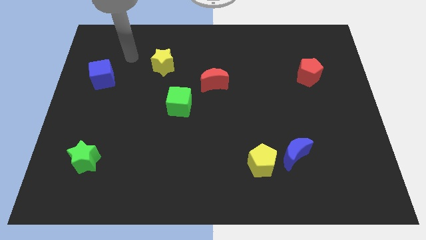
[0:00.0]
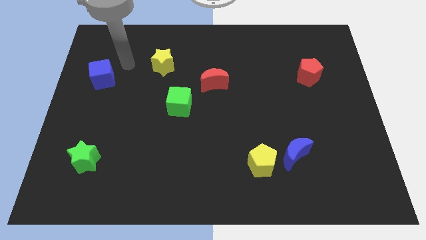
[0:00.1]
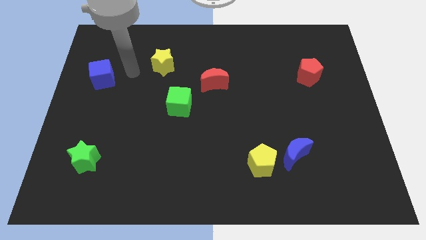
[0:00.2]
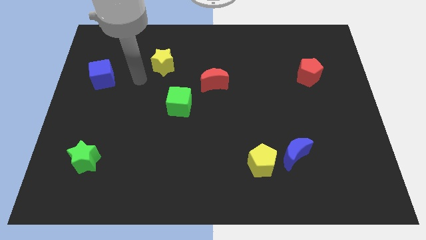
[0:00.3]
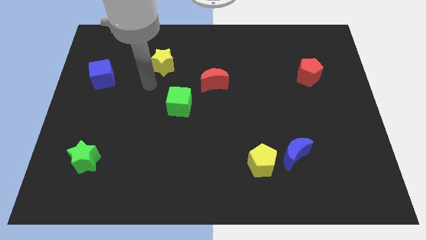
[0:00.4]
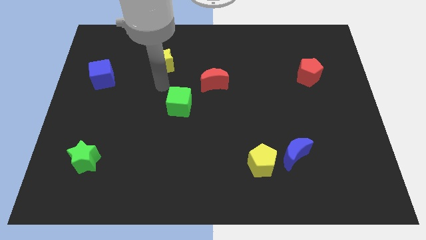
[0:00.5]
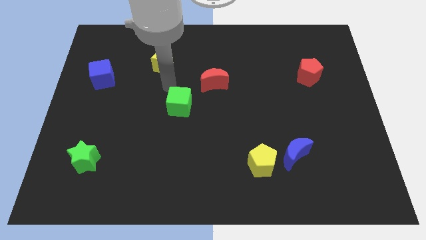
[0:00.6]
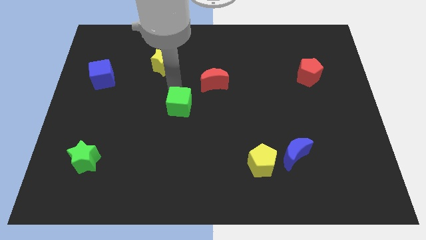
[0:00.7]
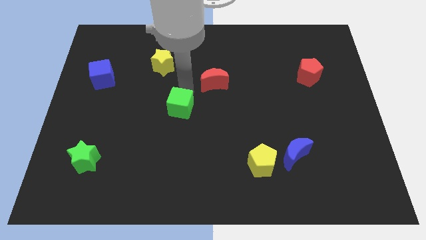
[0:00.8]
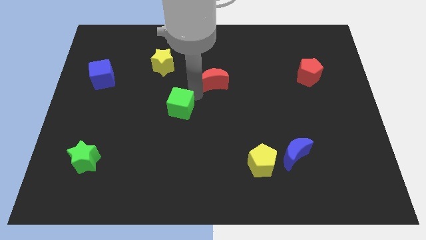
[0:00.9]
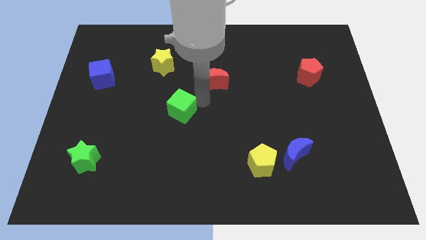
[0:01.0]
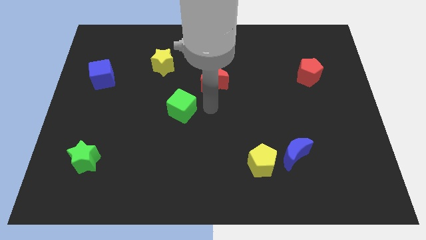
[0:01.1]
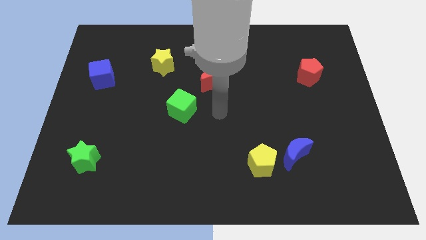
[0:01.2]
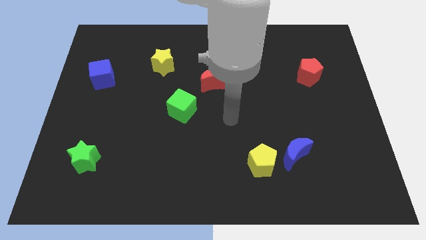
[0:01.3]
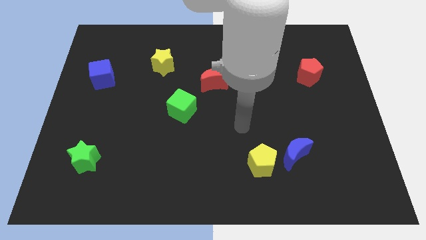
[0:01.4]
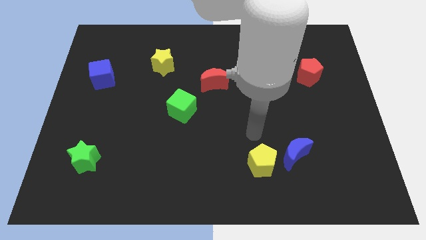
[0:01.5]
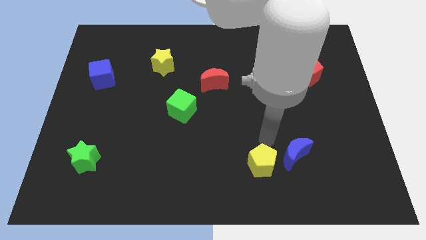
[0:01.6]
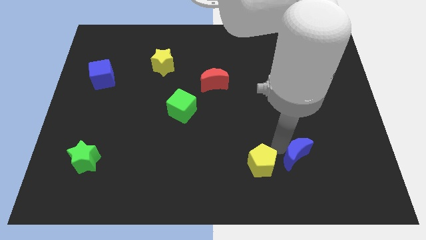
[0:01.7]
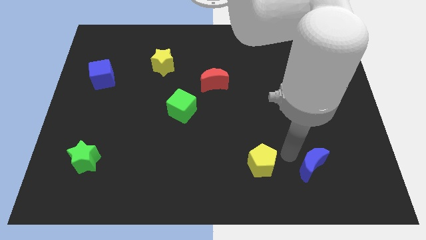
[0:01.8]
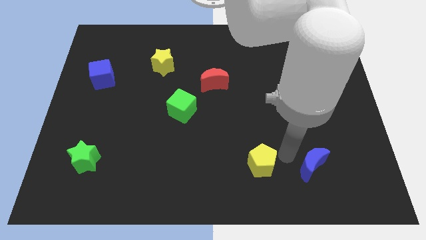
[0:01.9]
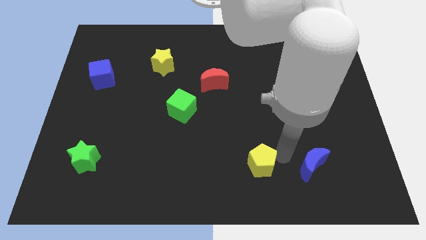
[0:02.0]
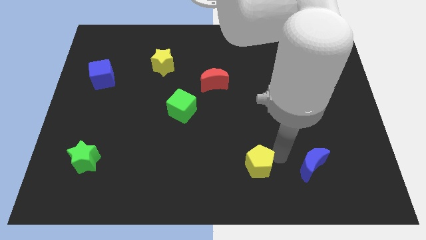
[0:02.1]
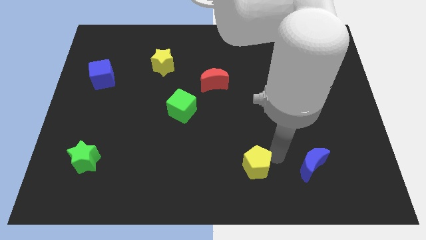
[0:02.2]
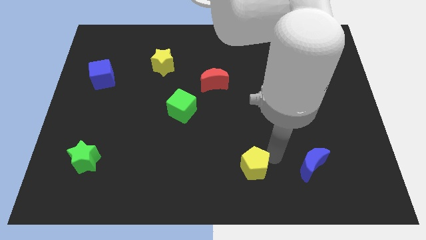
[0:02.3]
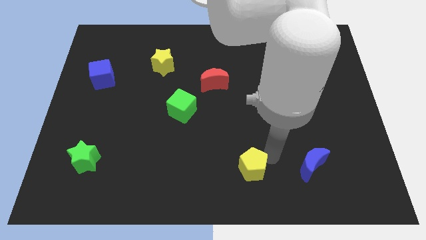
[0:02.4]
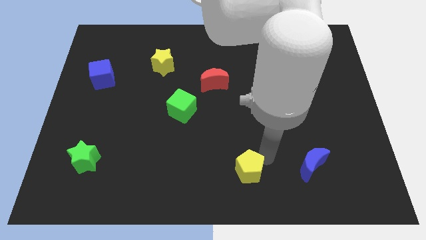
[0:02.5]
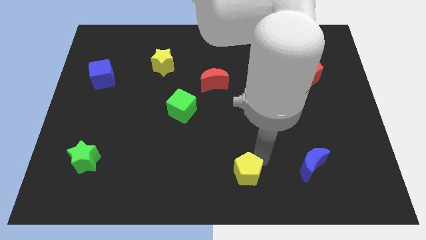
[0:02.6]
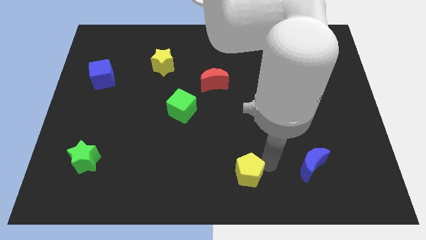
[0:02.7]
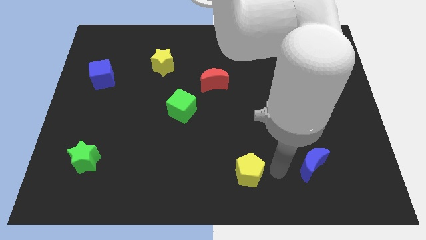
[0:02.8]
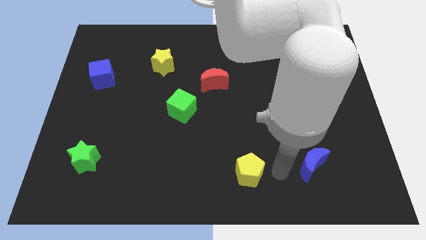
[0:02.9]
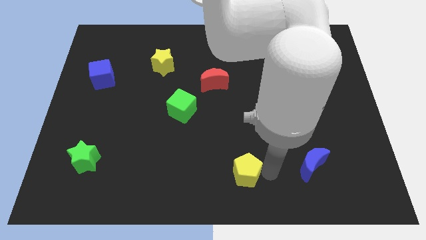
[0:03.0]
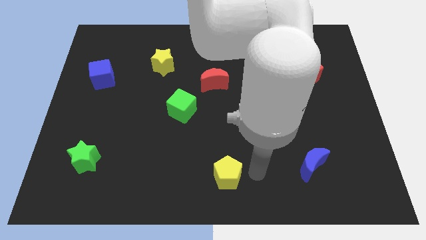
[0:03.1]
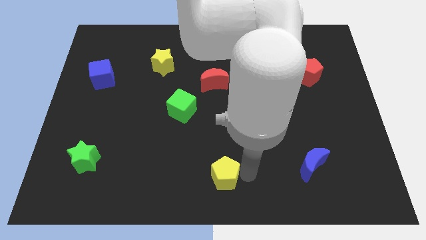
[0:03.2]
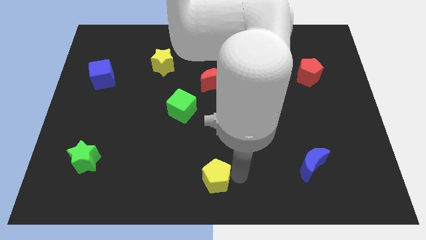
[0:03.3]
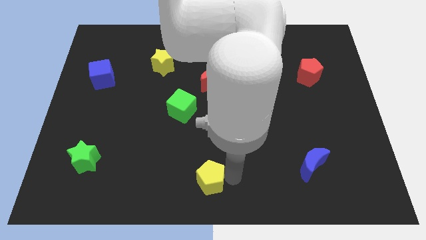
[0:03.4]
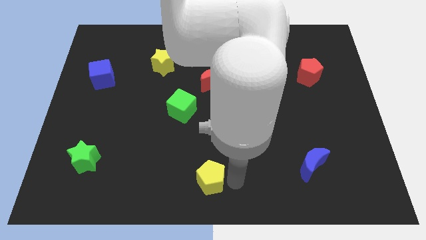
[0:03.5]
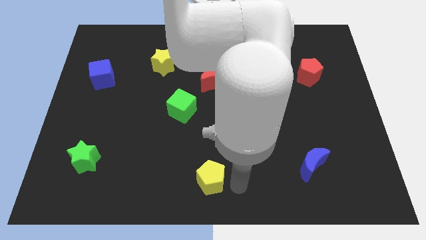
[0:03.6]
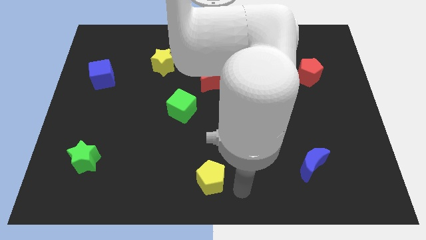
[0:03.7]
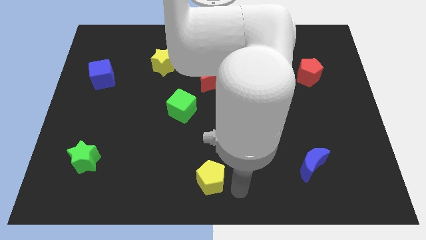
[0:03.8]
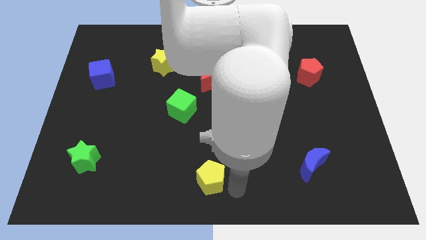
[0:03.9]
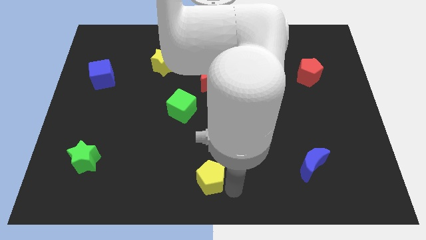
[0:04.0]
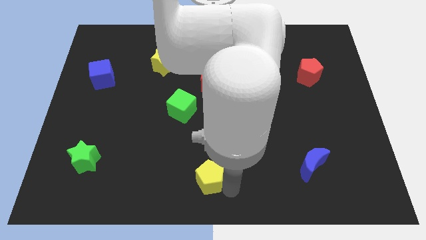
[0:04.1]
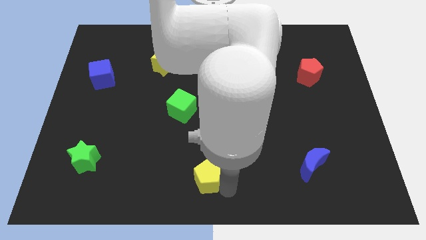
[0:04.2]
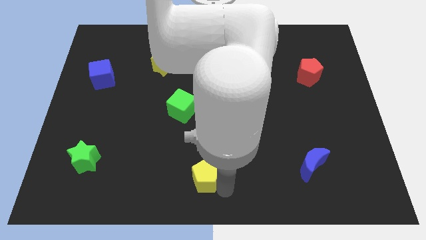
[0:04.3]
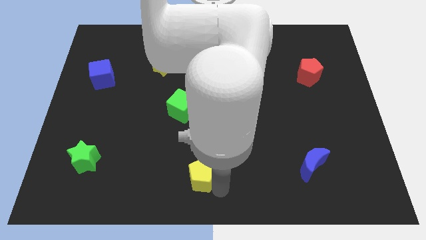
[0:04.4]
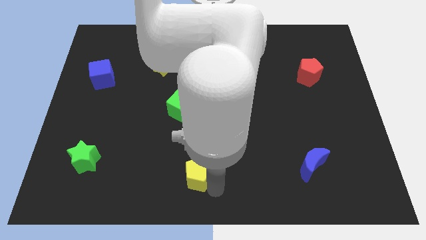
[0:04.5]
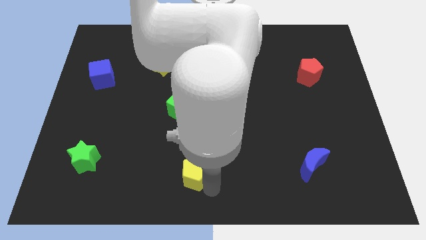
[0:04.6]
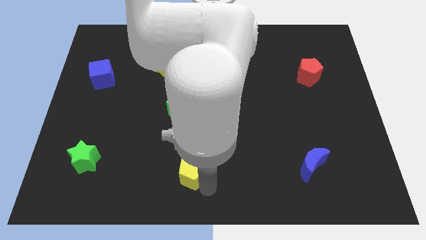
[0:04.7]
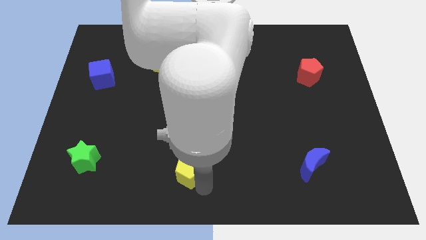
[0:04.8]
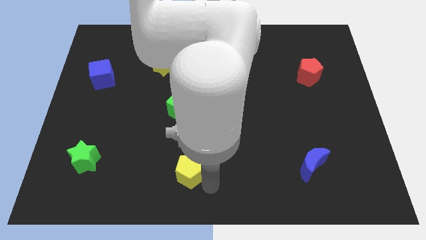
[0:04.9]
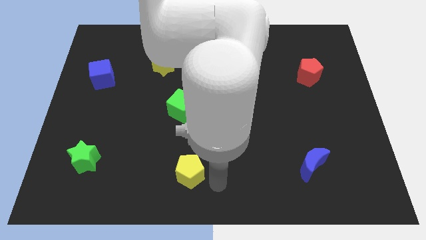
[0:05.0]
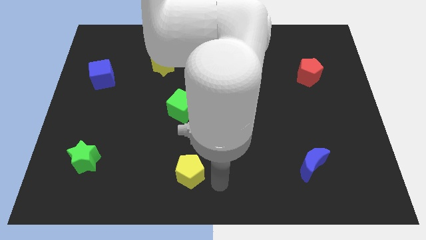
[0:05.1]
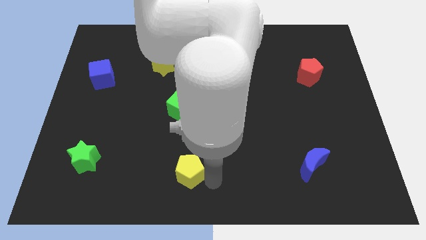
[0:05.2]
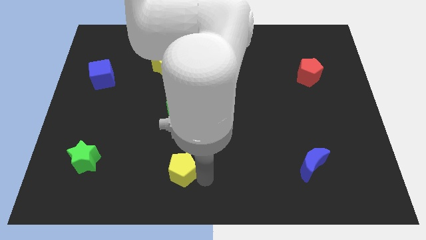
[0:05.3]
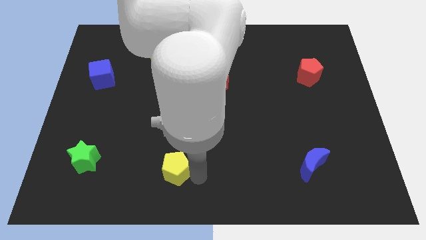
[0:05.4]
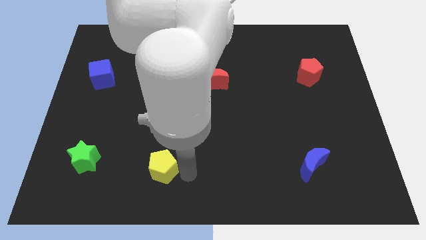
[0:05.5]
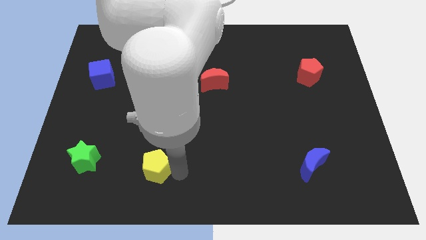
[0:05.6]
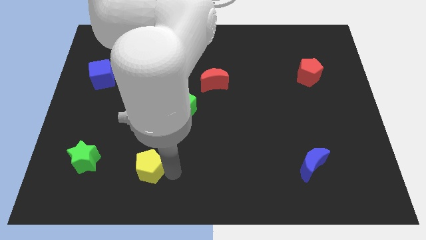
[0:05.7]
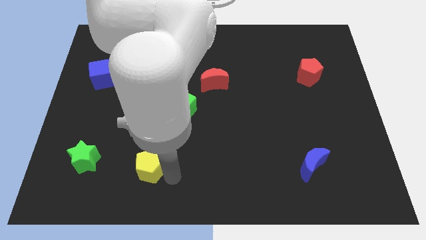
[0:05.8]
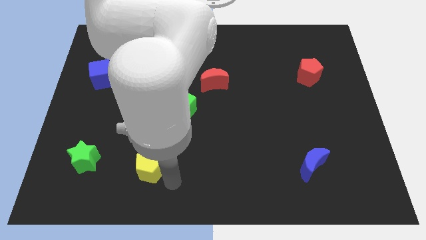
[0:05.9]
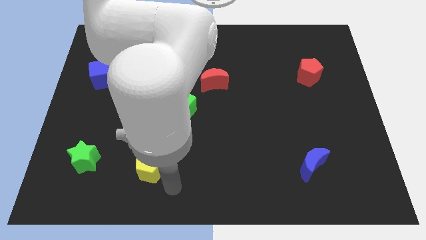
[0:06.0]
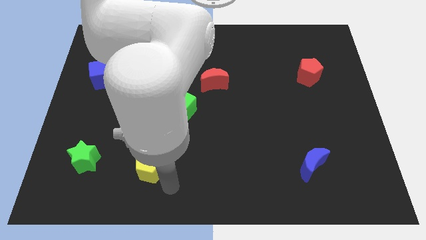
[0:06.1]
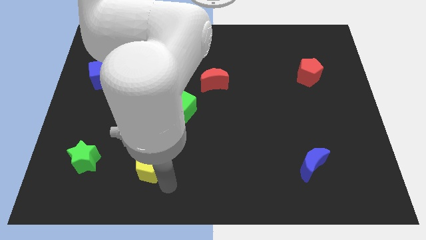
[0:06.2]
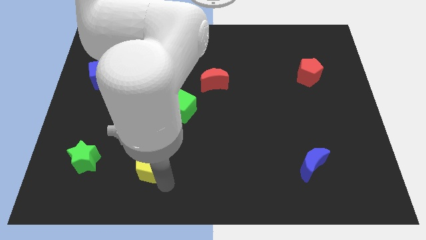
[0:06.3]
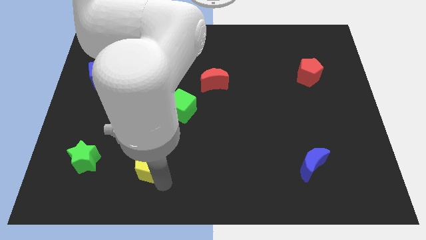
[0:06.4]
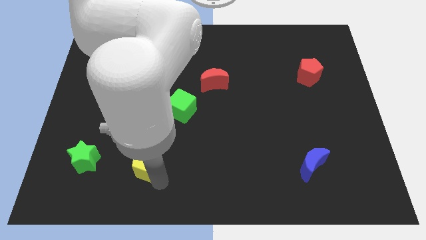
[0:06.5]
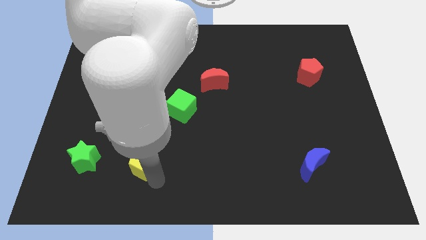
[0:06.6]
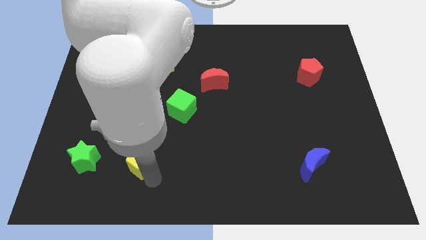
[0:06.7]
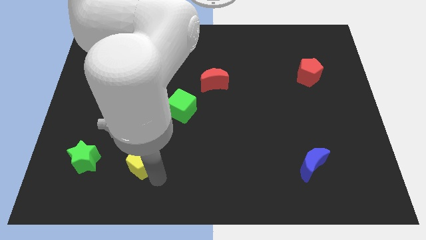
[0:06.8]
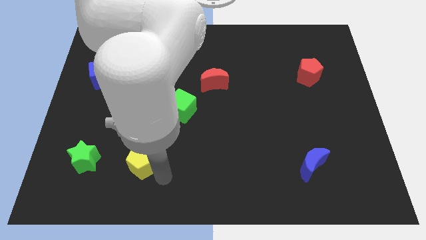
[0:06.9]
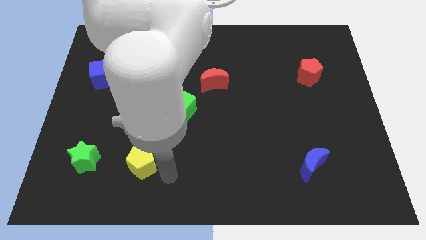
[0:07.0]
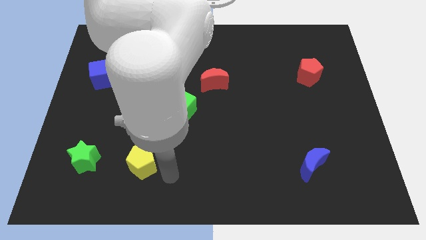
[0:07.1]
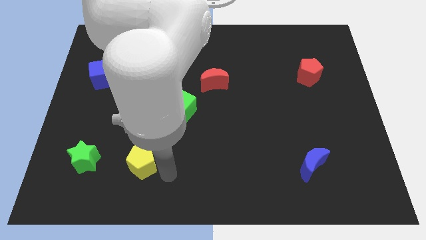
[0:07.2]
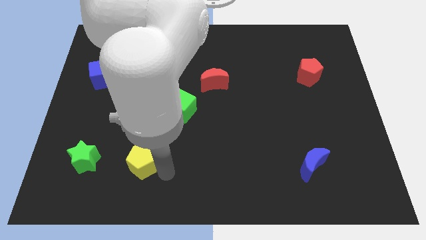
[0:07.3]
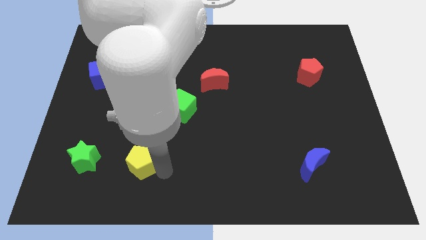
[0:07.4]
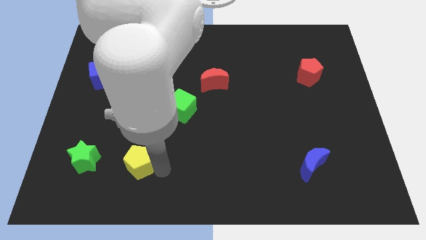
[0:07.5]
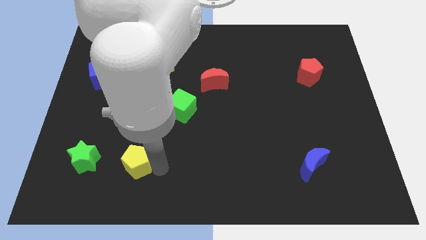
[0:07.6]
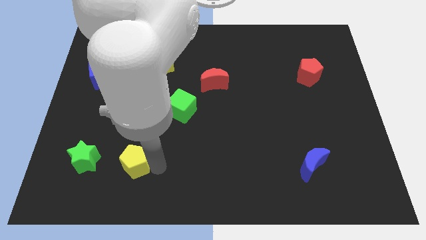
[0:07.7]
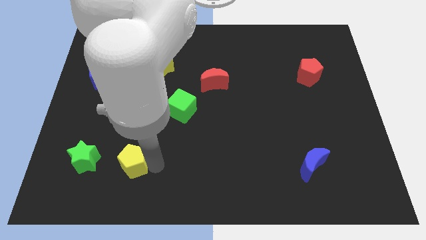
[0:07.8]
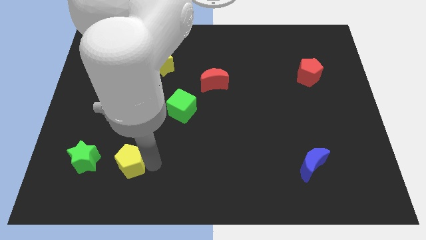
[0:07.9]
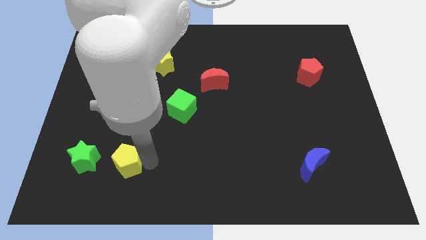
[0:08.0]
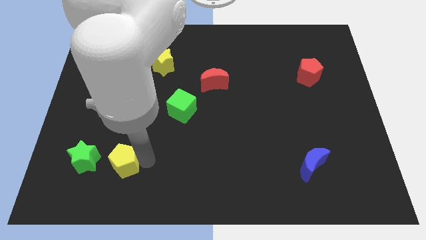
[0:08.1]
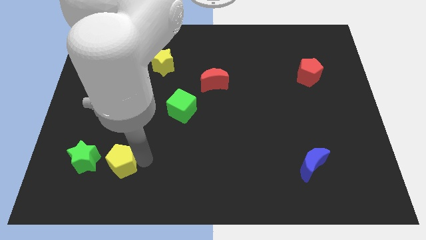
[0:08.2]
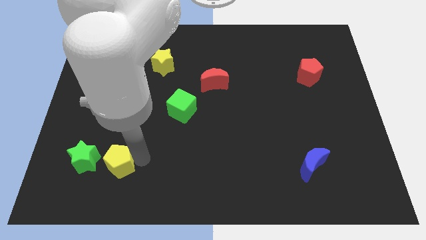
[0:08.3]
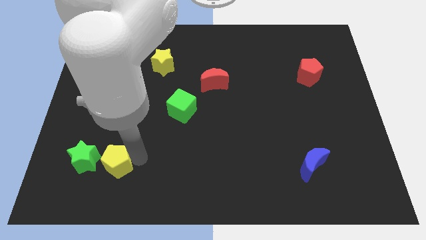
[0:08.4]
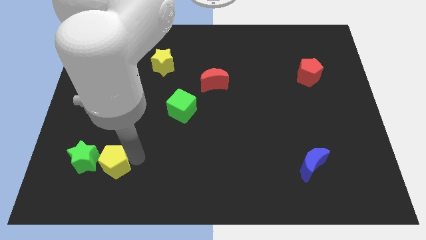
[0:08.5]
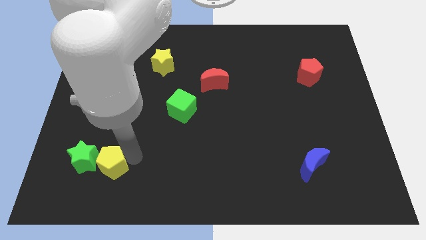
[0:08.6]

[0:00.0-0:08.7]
put the yellow pentagon to the green star
